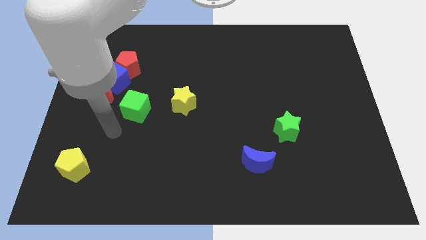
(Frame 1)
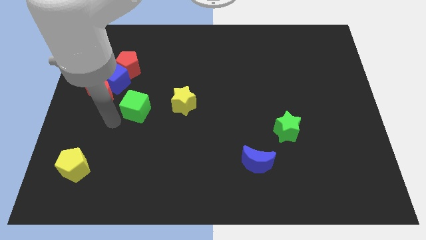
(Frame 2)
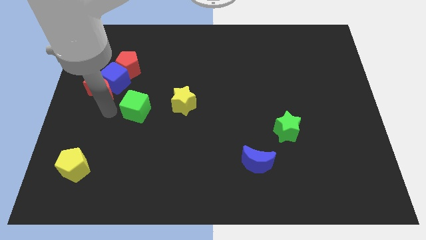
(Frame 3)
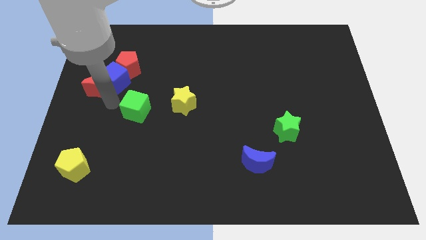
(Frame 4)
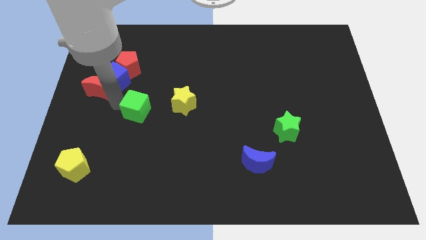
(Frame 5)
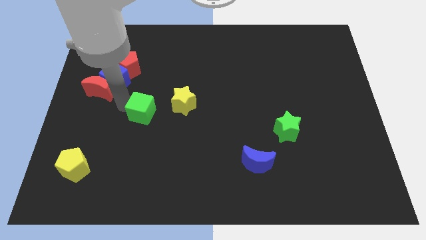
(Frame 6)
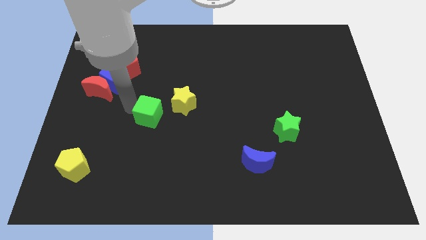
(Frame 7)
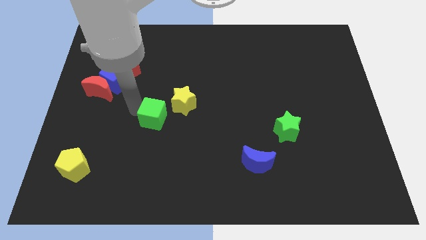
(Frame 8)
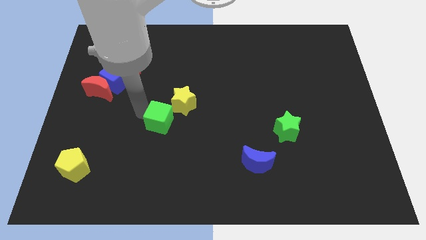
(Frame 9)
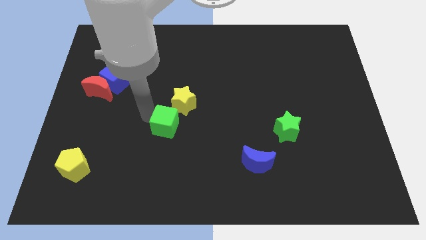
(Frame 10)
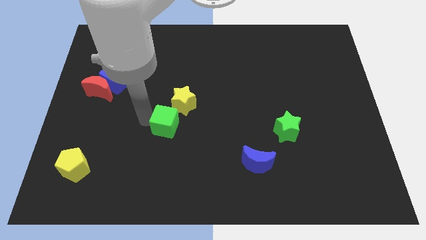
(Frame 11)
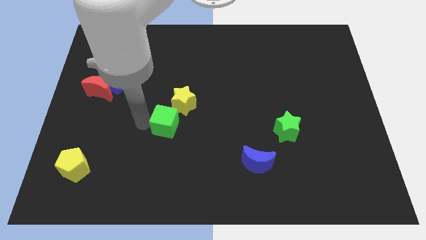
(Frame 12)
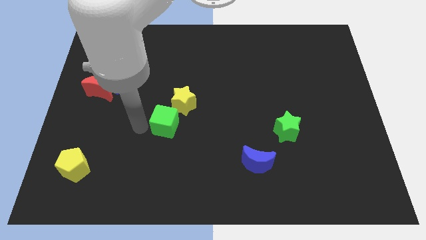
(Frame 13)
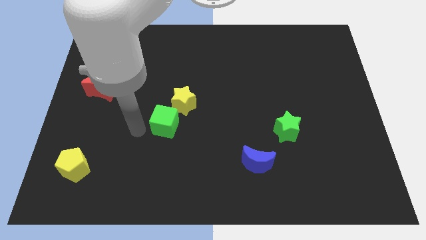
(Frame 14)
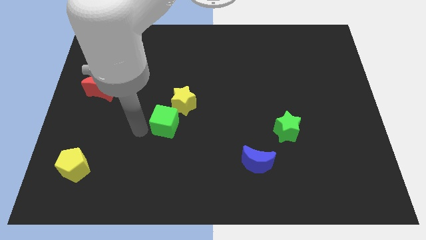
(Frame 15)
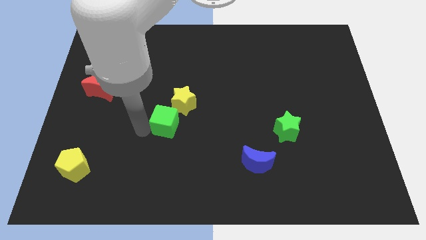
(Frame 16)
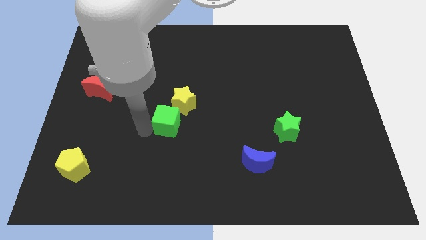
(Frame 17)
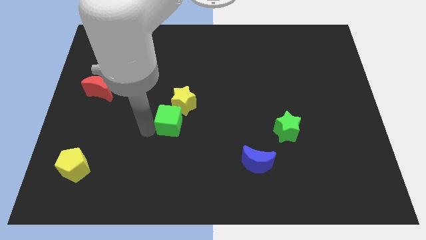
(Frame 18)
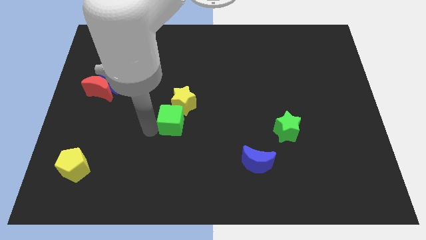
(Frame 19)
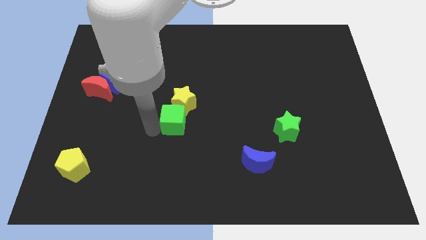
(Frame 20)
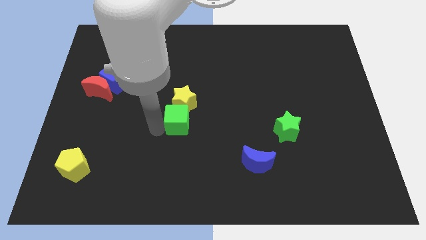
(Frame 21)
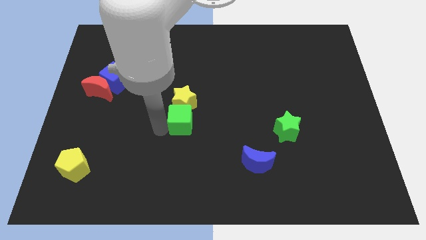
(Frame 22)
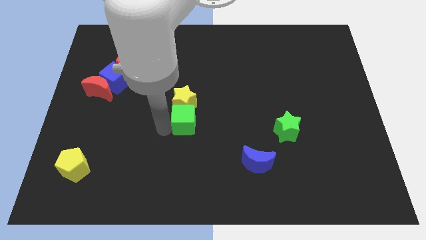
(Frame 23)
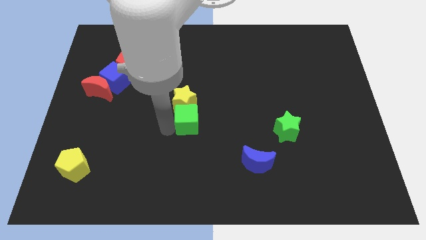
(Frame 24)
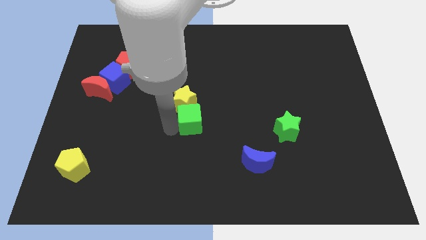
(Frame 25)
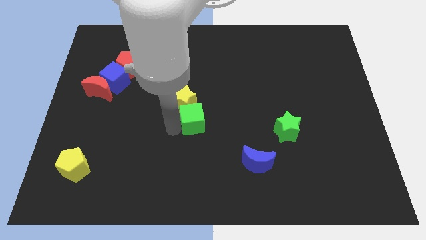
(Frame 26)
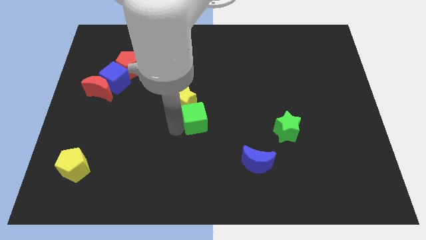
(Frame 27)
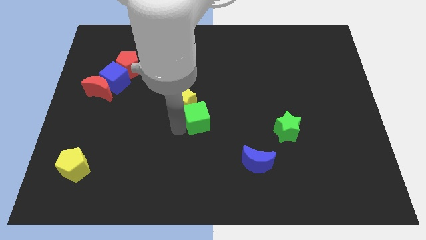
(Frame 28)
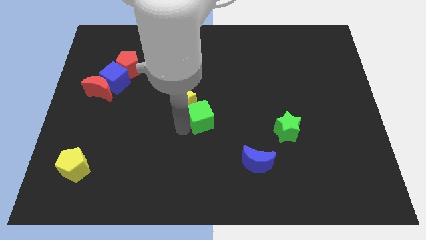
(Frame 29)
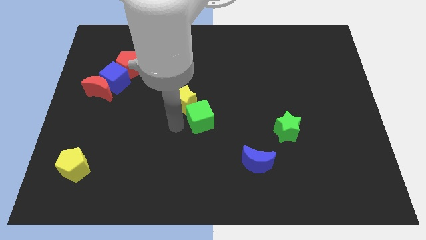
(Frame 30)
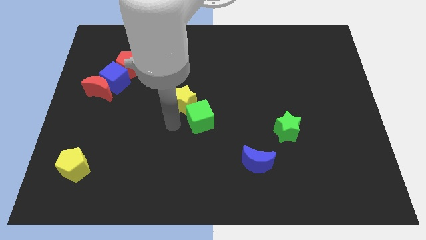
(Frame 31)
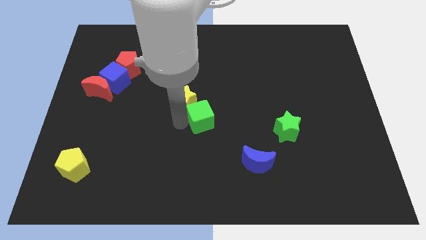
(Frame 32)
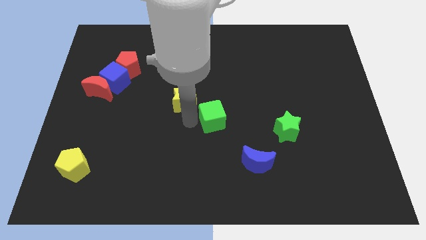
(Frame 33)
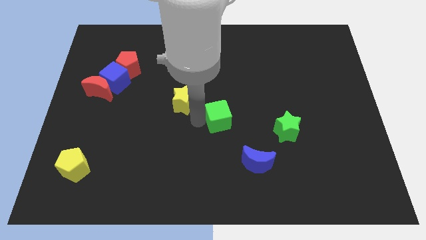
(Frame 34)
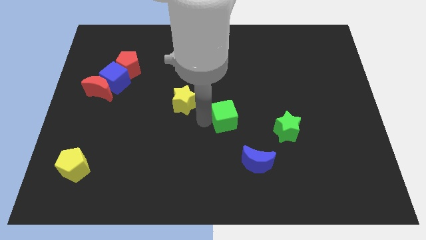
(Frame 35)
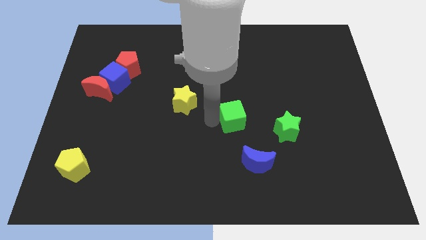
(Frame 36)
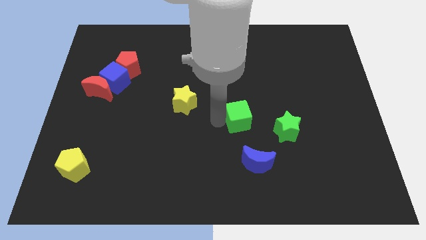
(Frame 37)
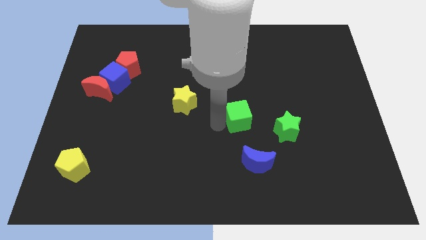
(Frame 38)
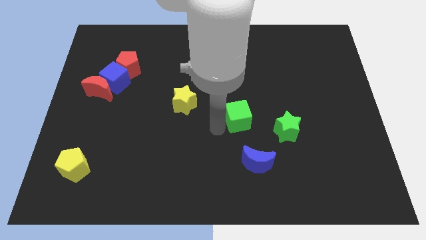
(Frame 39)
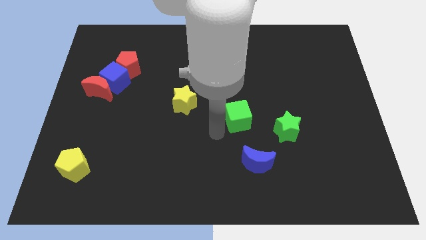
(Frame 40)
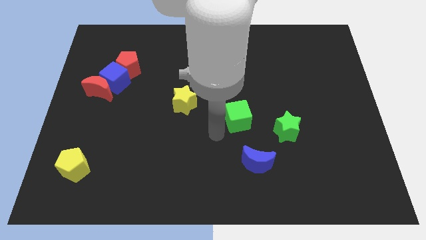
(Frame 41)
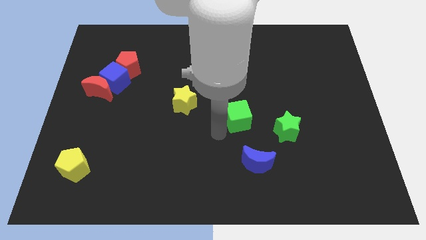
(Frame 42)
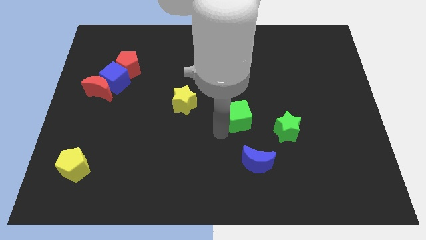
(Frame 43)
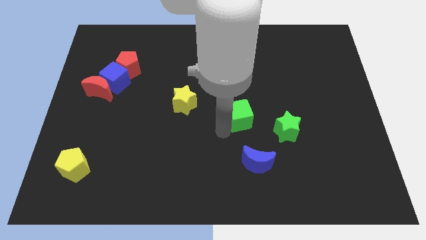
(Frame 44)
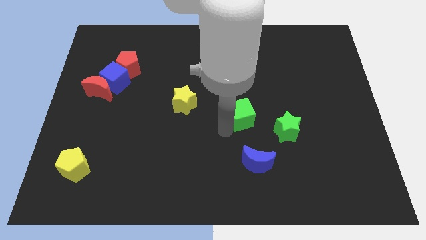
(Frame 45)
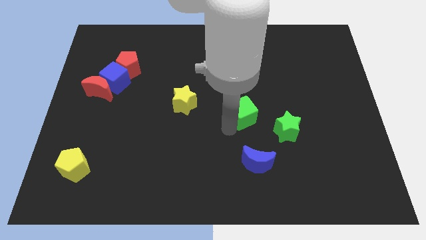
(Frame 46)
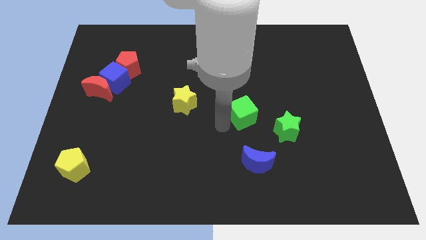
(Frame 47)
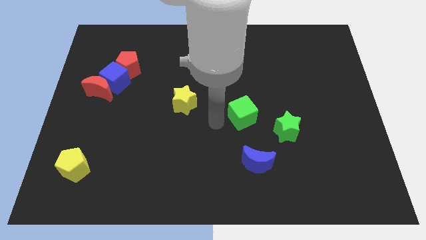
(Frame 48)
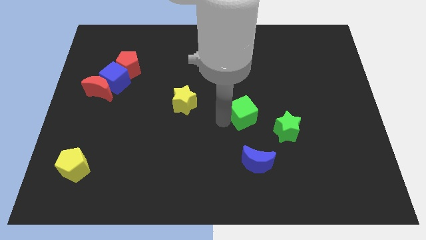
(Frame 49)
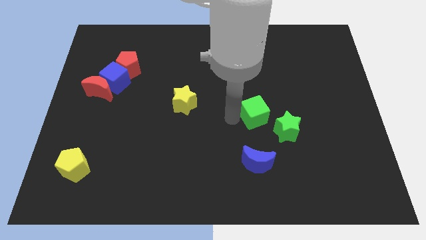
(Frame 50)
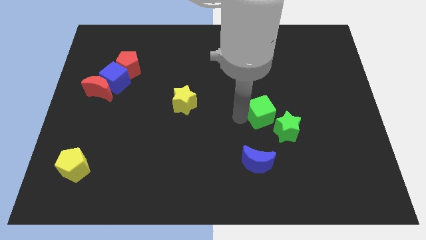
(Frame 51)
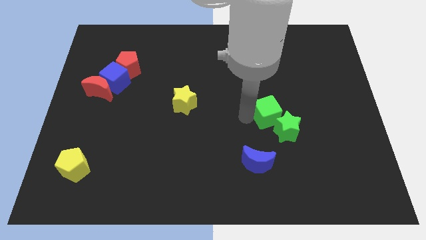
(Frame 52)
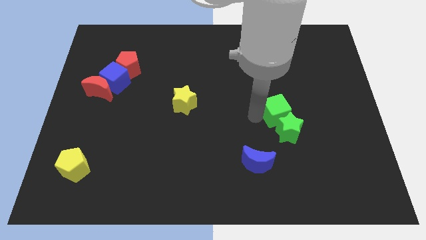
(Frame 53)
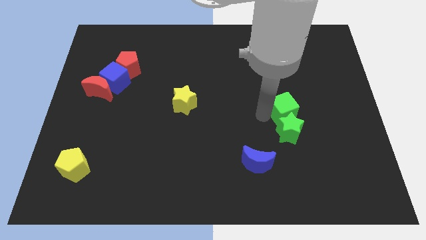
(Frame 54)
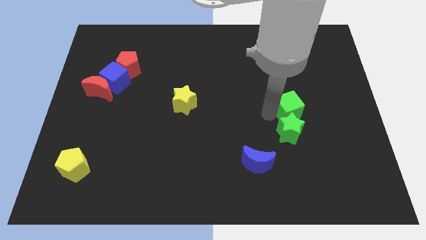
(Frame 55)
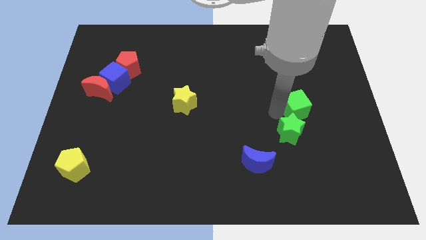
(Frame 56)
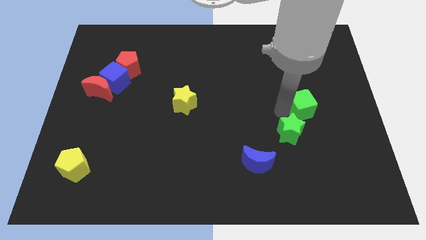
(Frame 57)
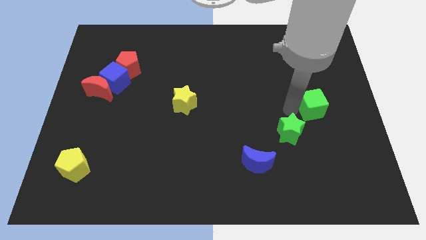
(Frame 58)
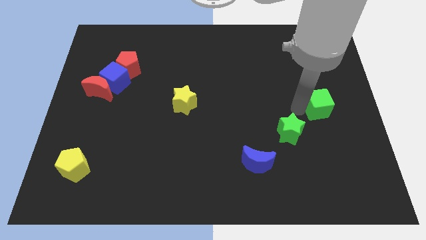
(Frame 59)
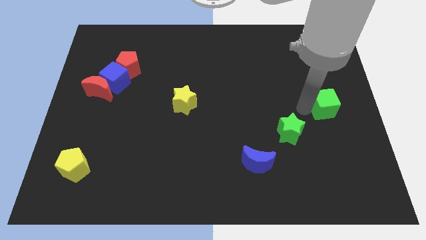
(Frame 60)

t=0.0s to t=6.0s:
push the green cube to the center right

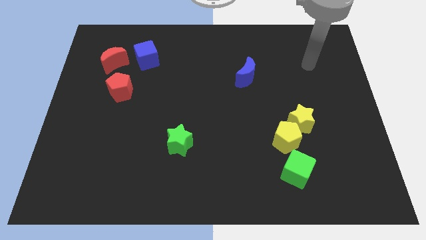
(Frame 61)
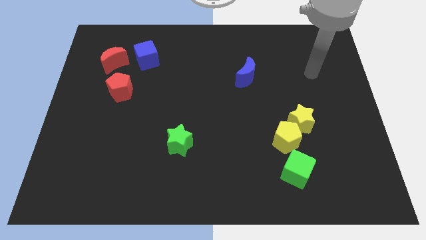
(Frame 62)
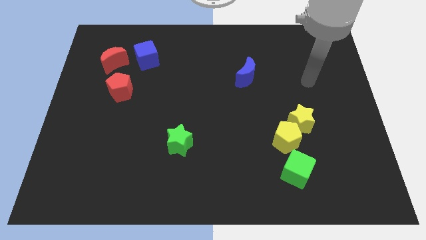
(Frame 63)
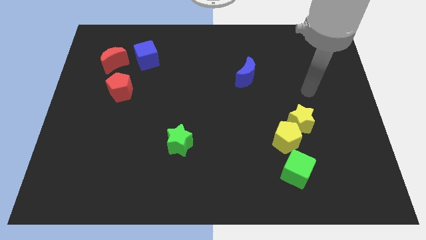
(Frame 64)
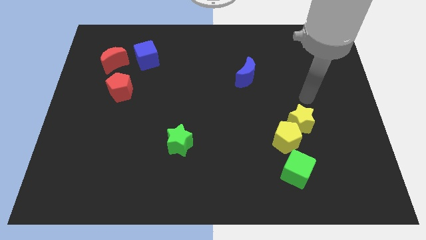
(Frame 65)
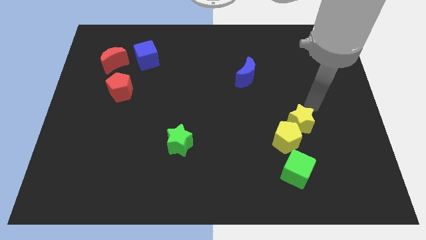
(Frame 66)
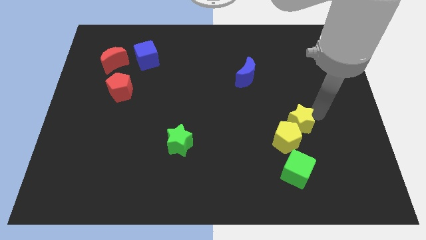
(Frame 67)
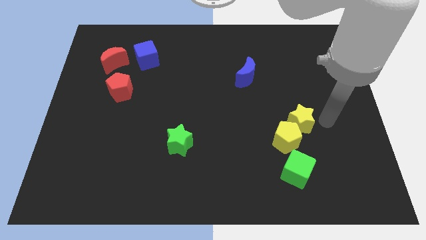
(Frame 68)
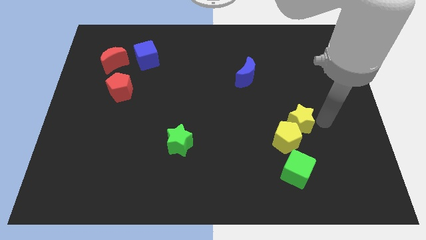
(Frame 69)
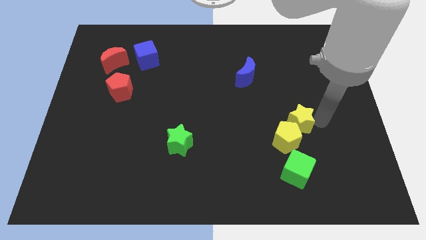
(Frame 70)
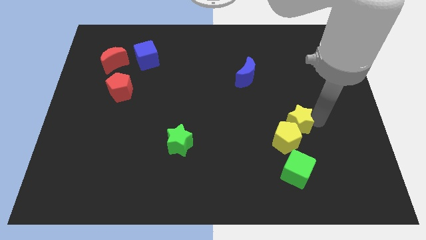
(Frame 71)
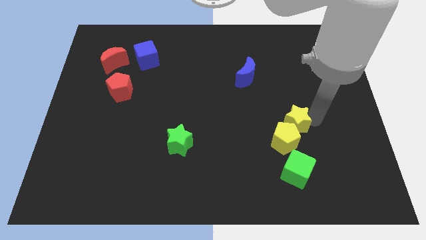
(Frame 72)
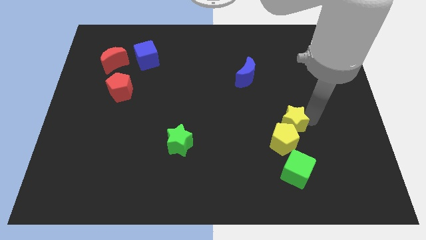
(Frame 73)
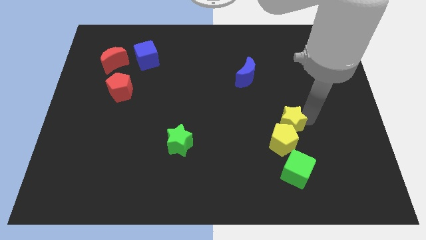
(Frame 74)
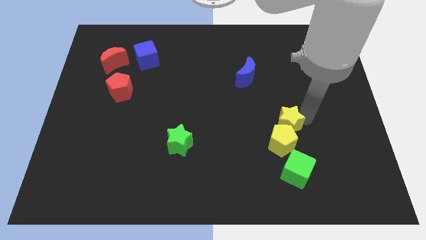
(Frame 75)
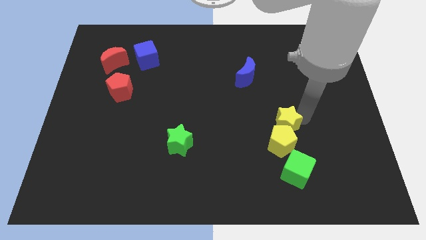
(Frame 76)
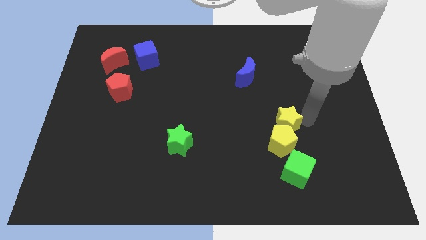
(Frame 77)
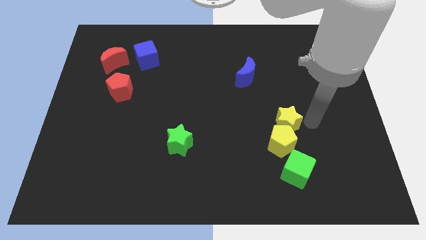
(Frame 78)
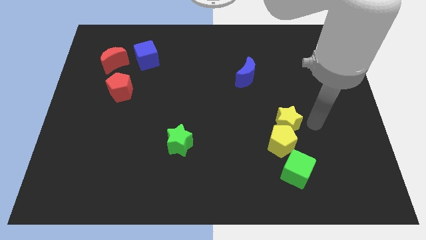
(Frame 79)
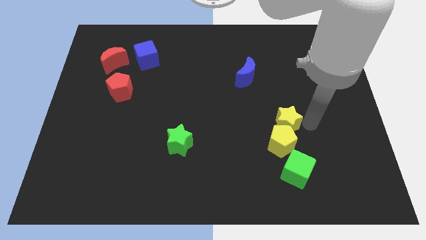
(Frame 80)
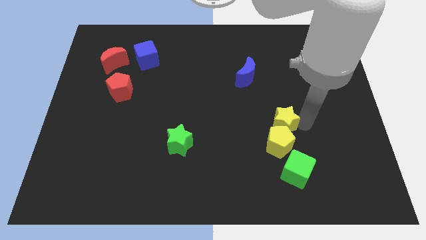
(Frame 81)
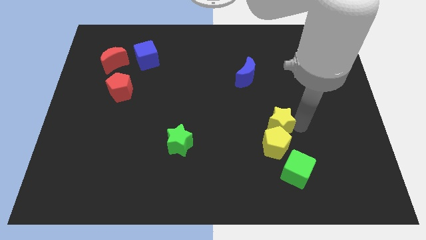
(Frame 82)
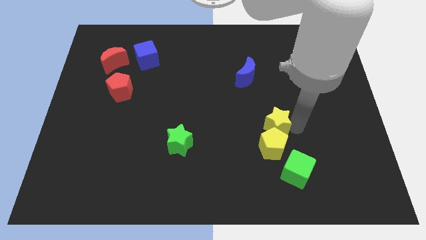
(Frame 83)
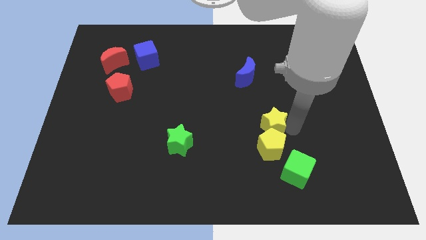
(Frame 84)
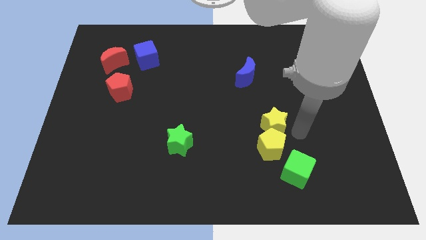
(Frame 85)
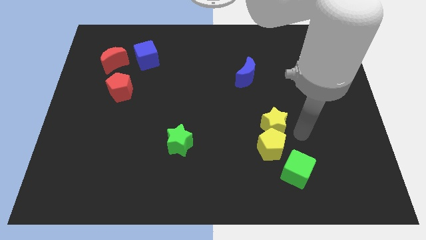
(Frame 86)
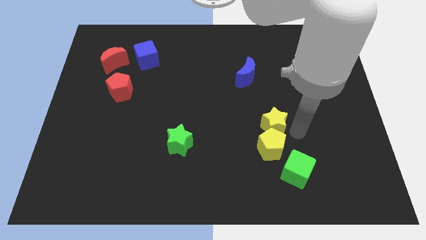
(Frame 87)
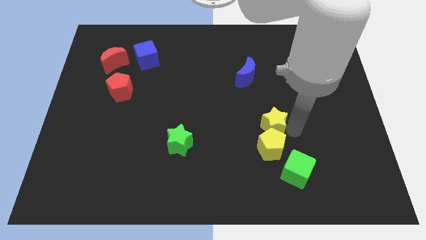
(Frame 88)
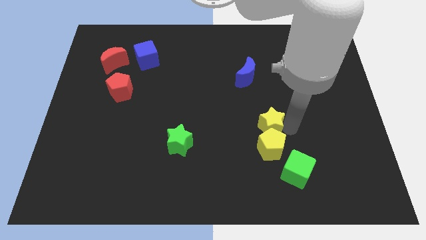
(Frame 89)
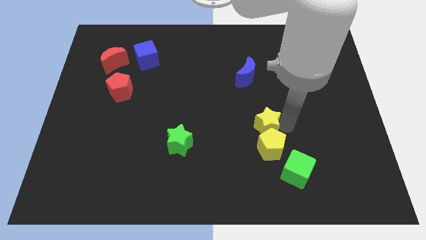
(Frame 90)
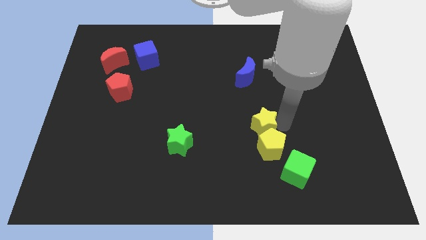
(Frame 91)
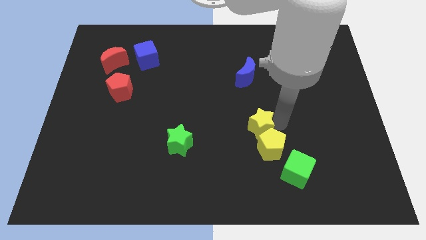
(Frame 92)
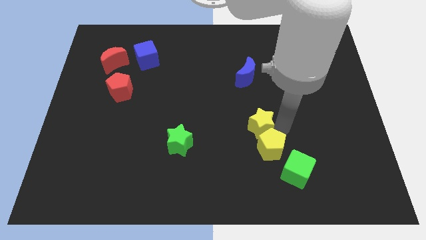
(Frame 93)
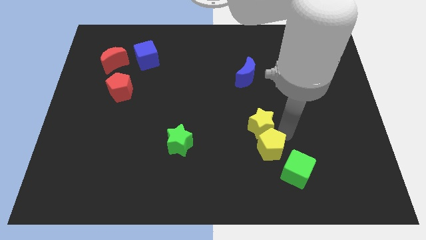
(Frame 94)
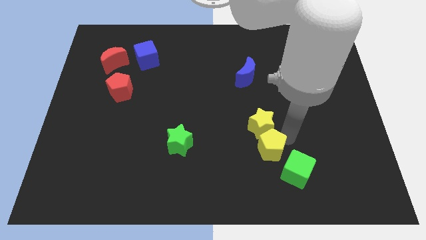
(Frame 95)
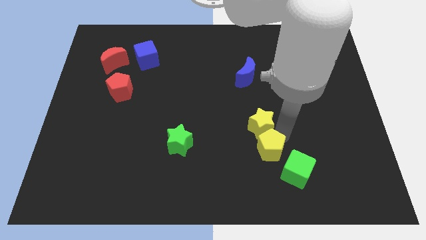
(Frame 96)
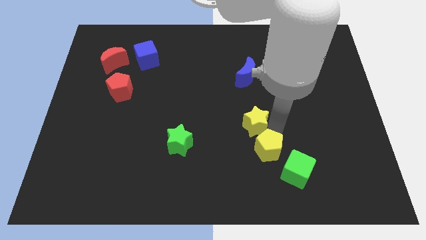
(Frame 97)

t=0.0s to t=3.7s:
move the yellow star to the center
